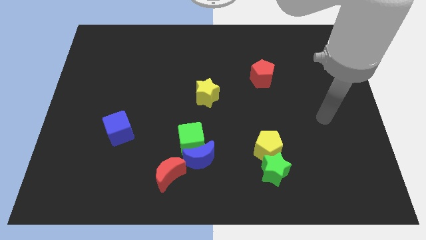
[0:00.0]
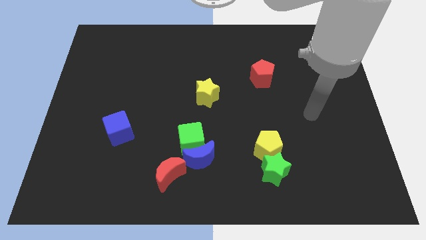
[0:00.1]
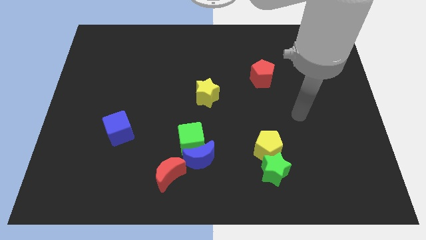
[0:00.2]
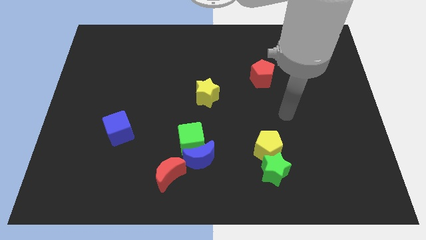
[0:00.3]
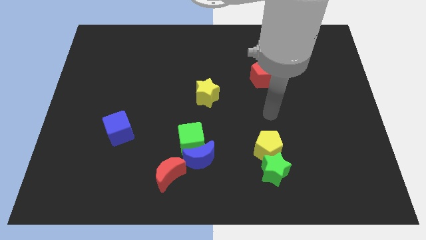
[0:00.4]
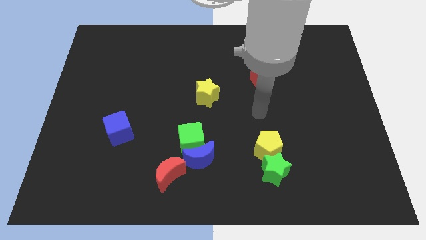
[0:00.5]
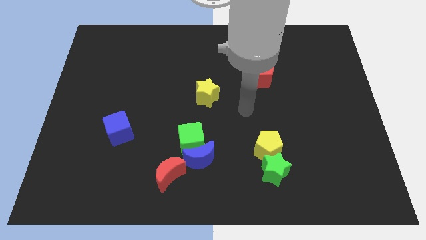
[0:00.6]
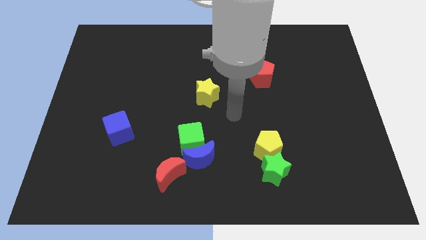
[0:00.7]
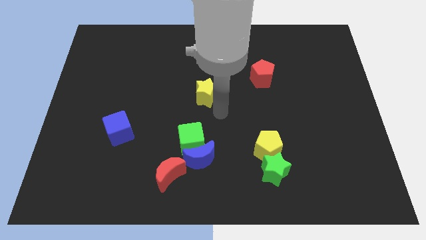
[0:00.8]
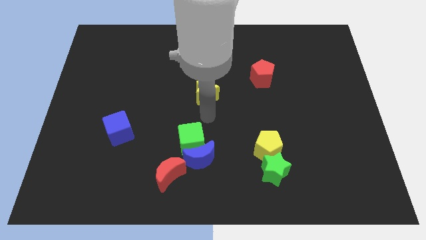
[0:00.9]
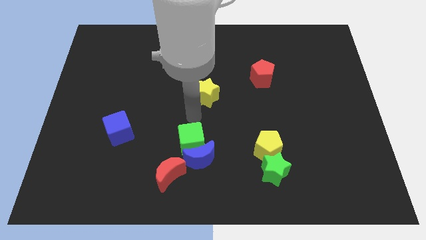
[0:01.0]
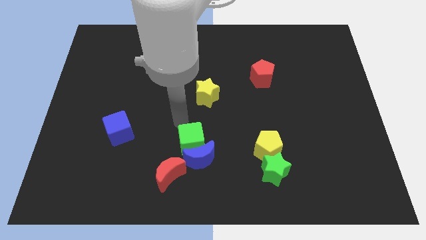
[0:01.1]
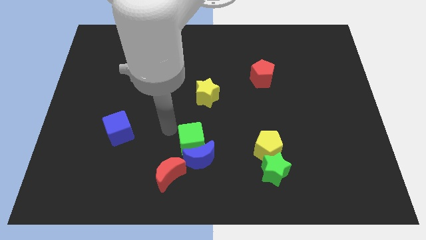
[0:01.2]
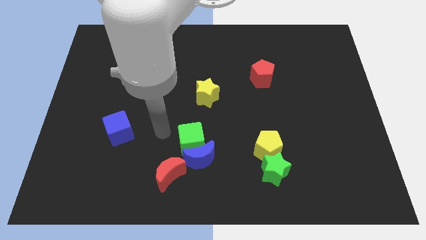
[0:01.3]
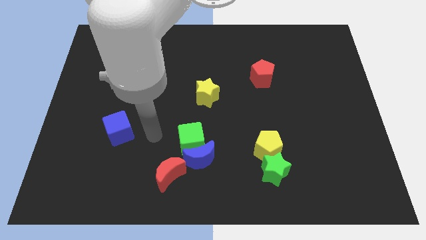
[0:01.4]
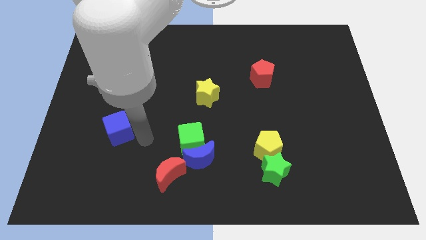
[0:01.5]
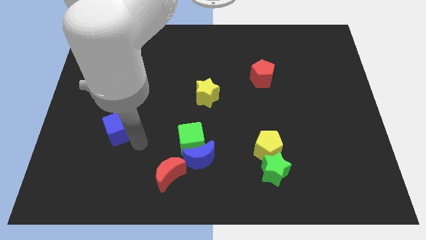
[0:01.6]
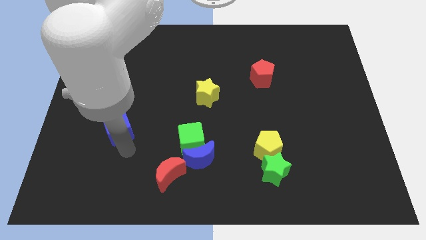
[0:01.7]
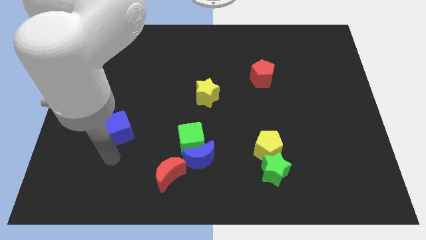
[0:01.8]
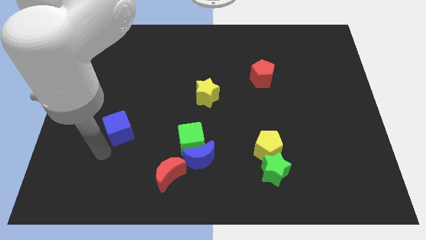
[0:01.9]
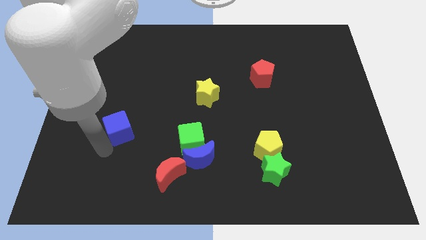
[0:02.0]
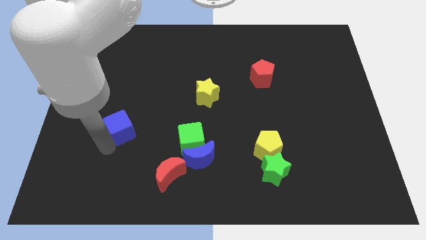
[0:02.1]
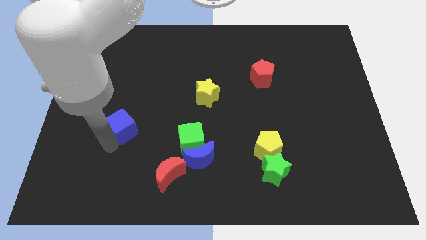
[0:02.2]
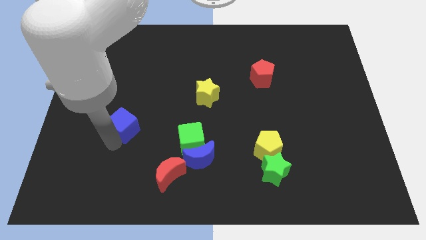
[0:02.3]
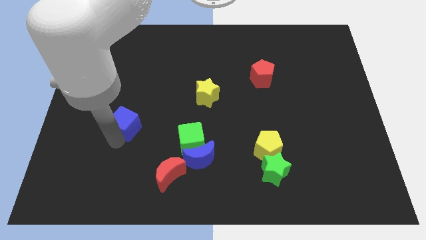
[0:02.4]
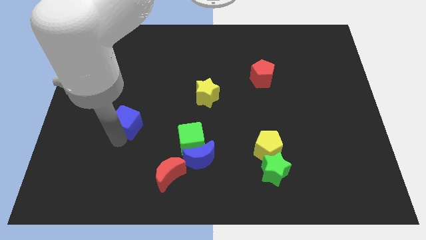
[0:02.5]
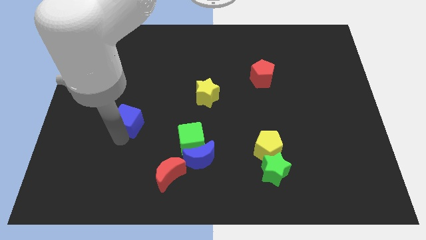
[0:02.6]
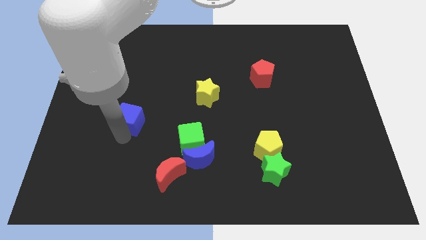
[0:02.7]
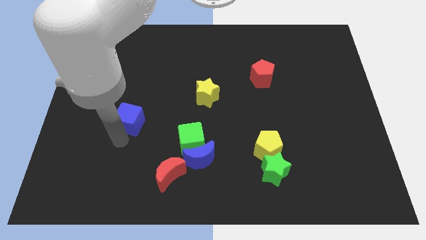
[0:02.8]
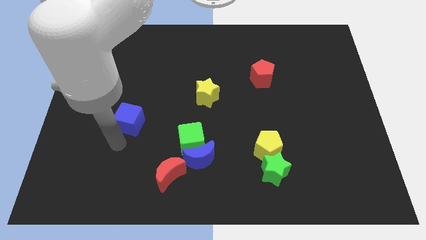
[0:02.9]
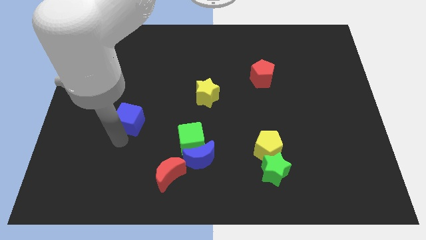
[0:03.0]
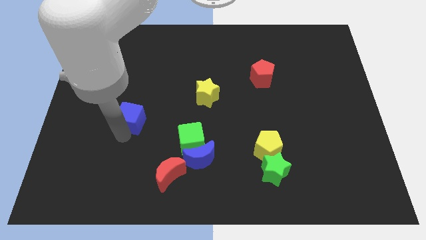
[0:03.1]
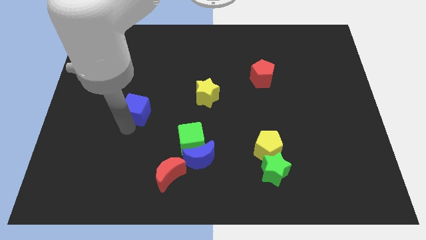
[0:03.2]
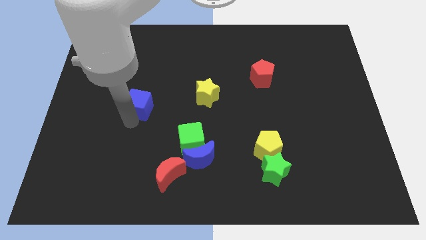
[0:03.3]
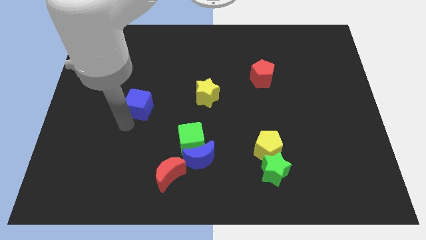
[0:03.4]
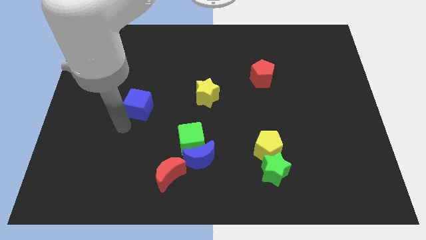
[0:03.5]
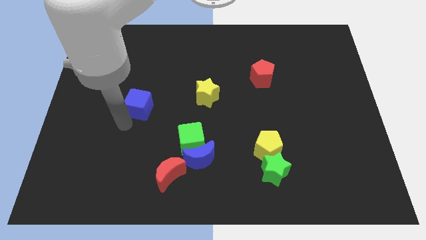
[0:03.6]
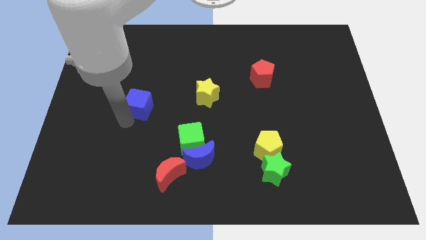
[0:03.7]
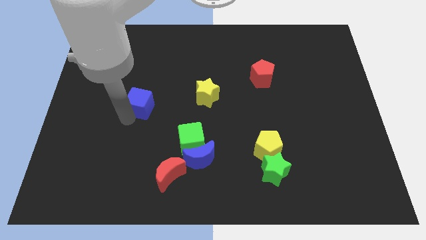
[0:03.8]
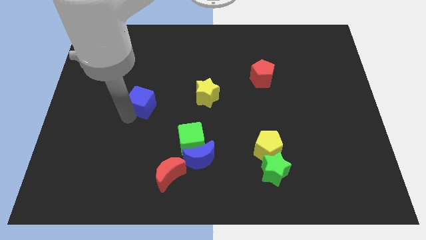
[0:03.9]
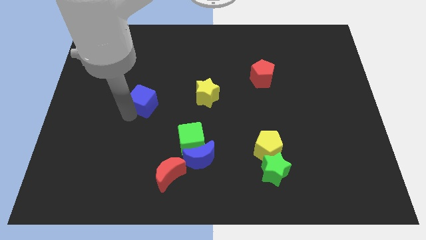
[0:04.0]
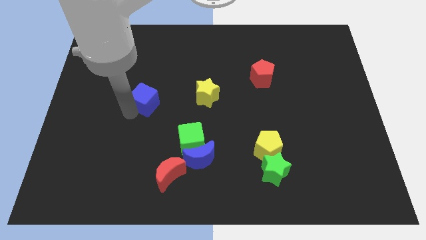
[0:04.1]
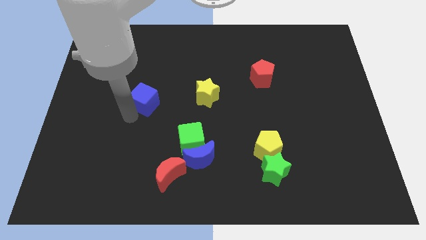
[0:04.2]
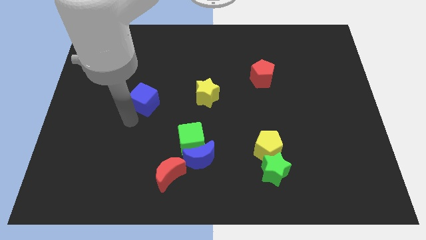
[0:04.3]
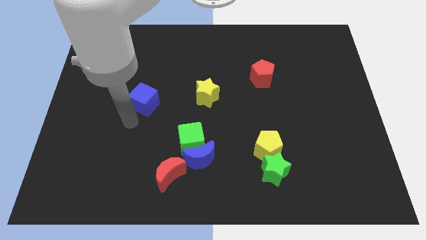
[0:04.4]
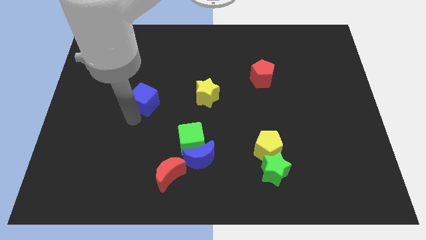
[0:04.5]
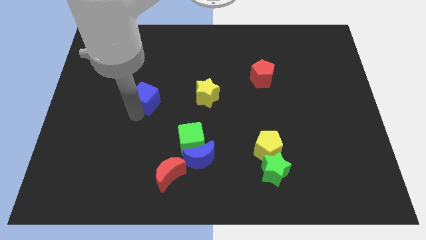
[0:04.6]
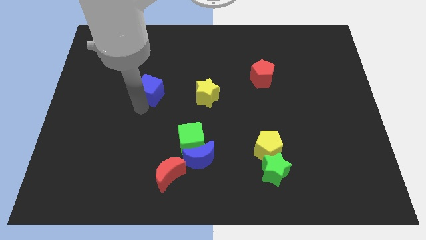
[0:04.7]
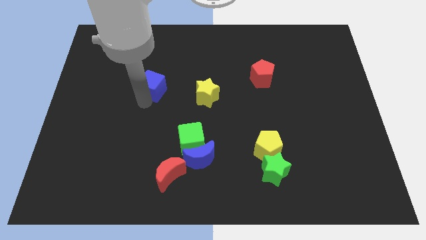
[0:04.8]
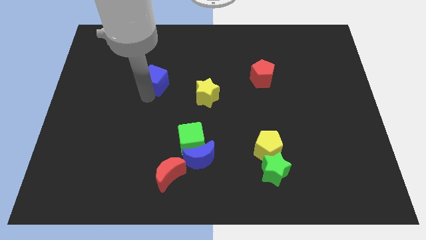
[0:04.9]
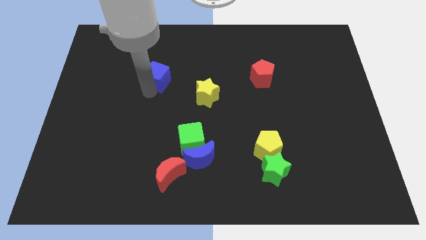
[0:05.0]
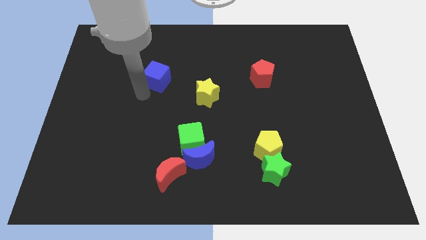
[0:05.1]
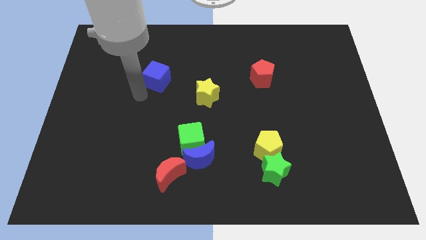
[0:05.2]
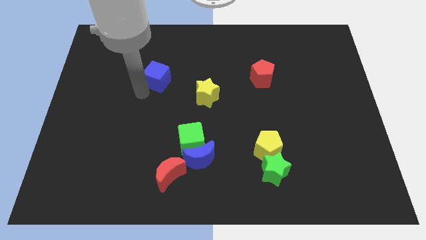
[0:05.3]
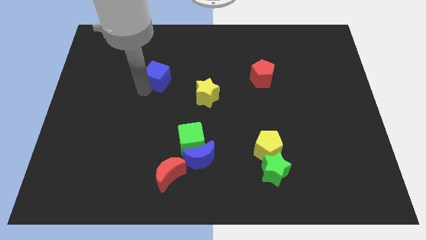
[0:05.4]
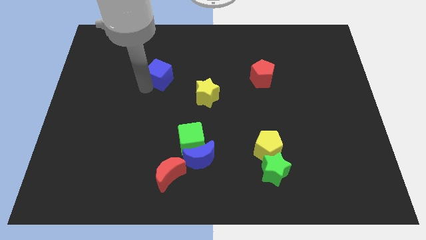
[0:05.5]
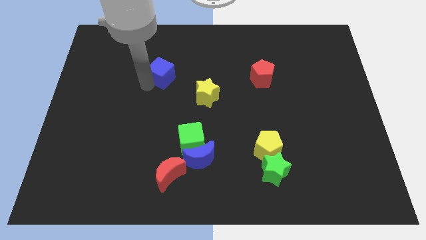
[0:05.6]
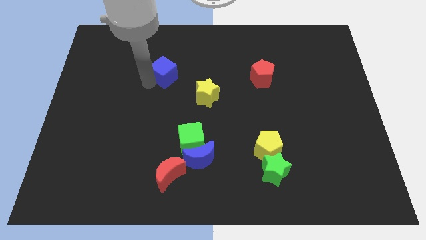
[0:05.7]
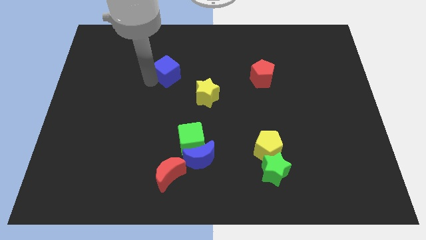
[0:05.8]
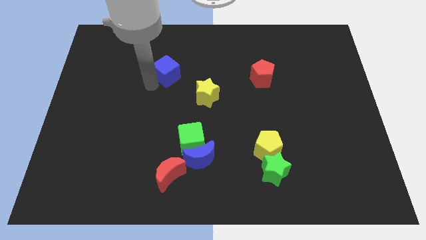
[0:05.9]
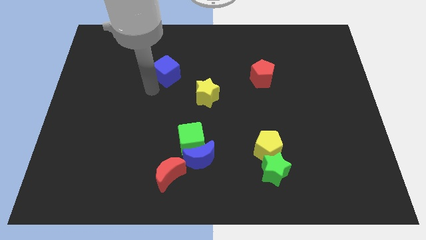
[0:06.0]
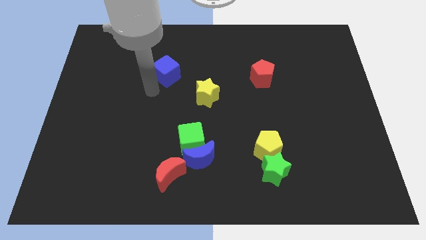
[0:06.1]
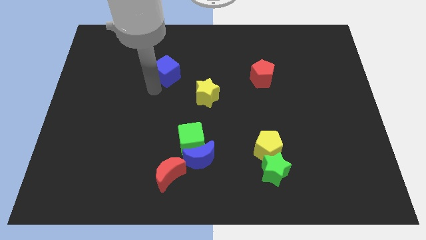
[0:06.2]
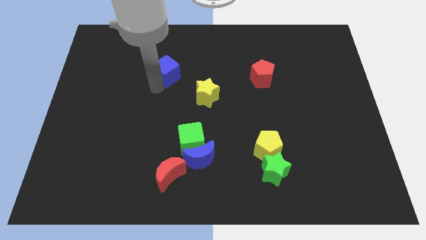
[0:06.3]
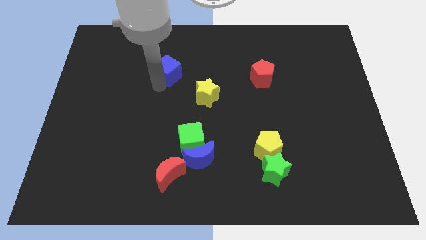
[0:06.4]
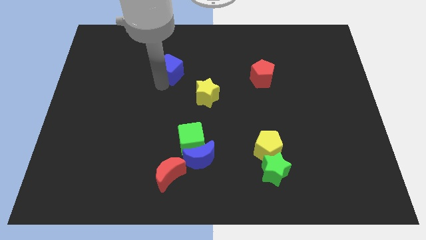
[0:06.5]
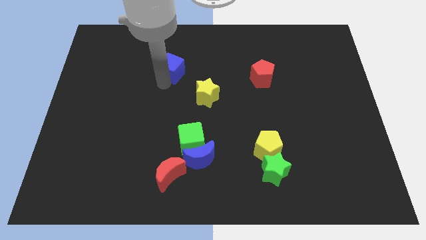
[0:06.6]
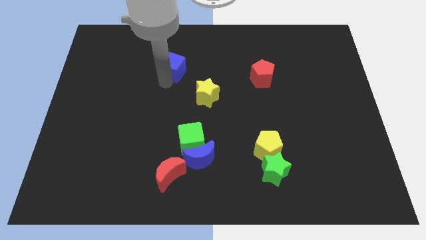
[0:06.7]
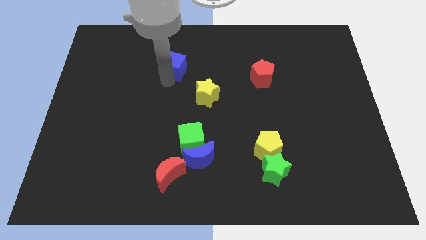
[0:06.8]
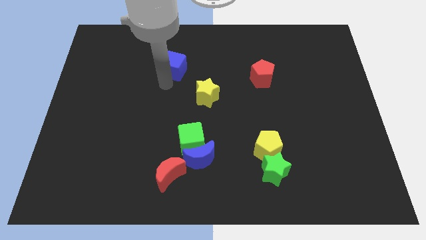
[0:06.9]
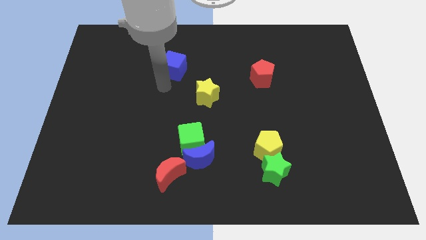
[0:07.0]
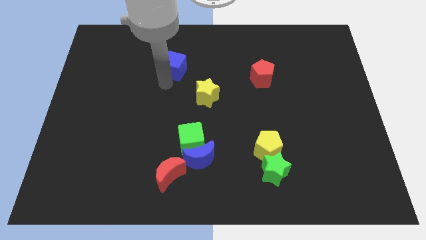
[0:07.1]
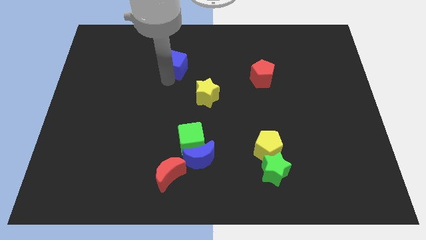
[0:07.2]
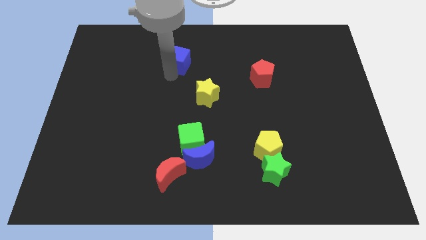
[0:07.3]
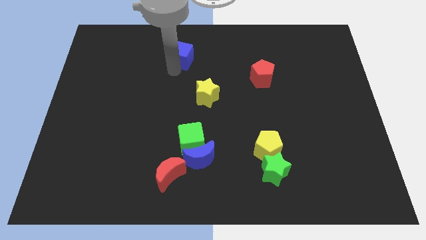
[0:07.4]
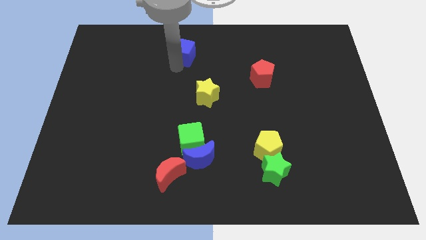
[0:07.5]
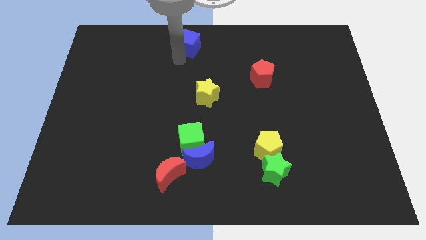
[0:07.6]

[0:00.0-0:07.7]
slide the blue cube to the towards your base
